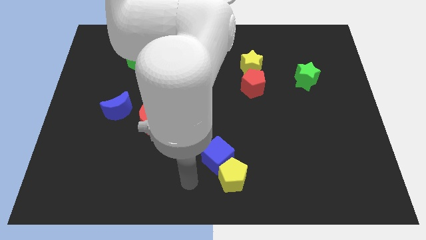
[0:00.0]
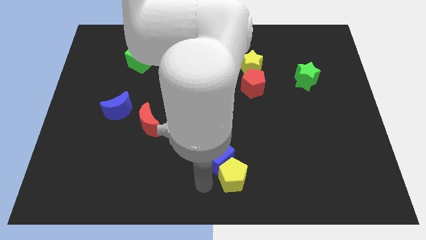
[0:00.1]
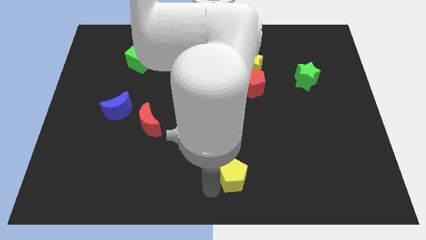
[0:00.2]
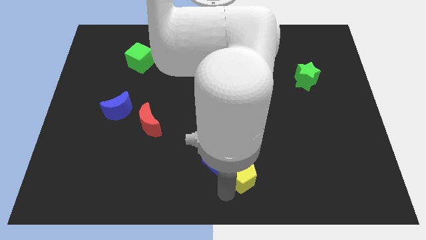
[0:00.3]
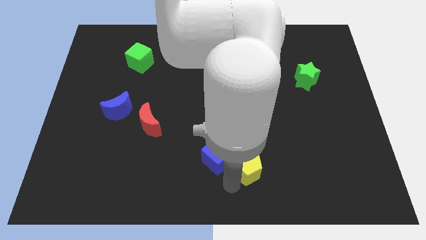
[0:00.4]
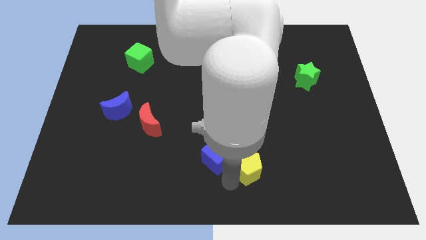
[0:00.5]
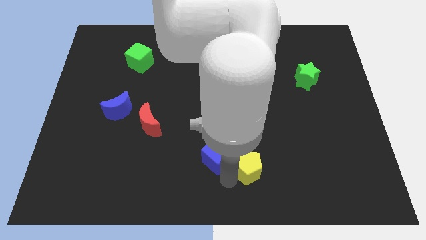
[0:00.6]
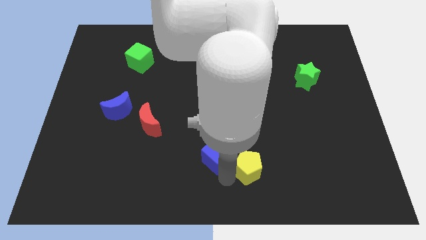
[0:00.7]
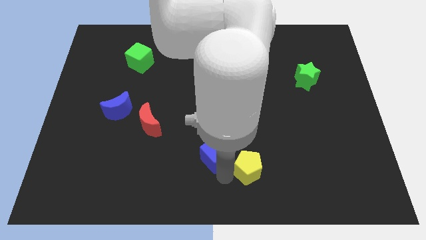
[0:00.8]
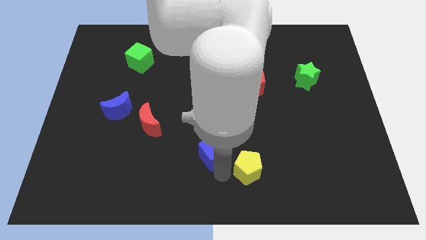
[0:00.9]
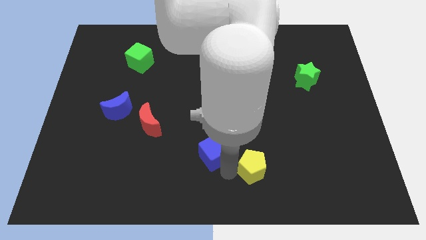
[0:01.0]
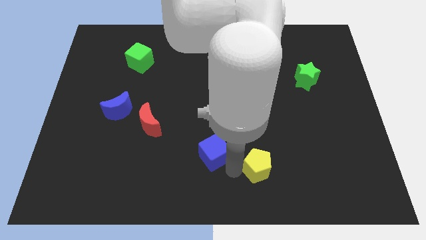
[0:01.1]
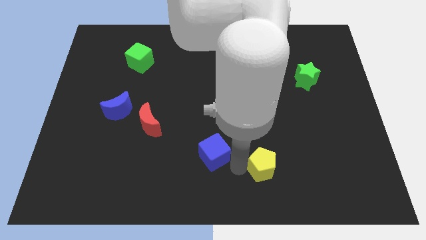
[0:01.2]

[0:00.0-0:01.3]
separate the blue cube from the yellow pentagon

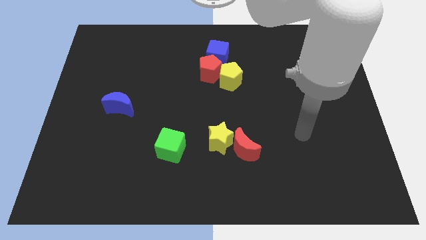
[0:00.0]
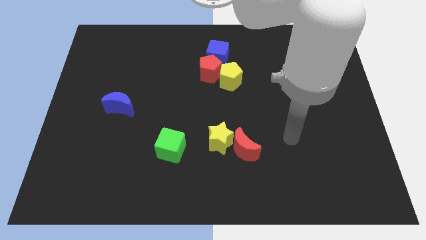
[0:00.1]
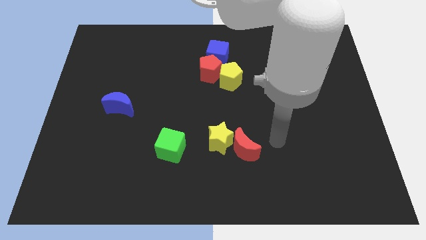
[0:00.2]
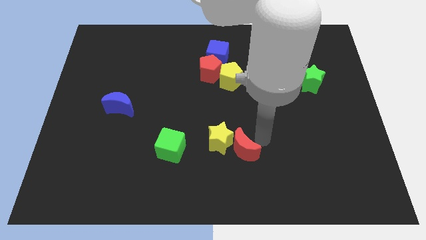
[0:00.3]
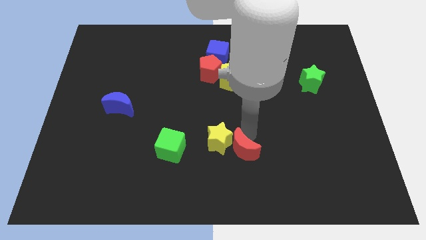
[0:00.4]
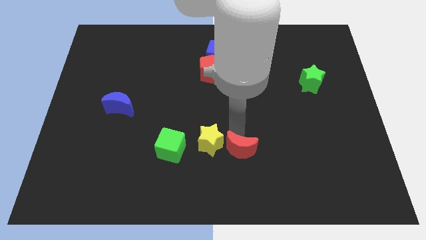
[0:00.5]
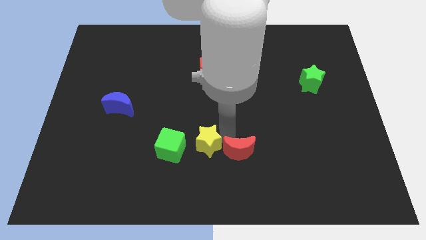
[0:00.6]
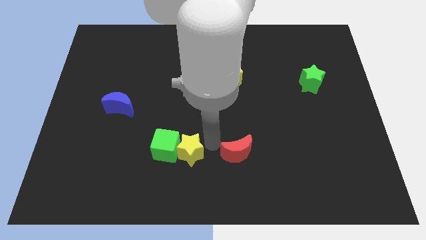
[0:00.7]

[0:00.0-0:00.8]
move the red moon away from the yellow star

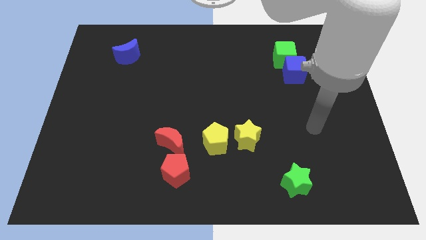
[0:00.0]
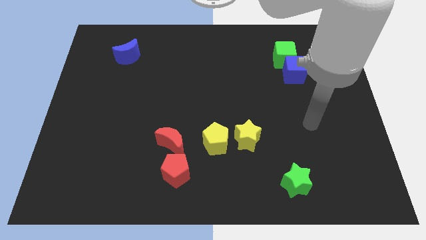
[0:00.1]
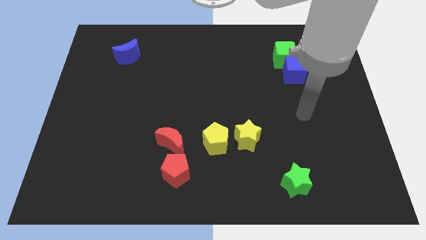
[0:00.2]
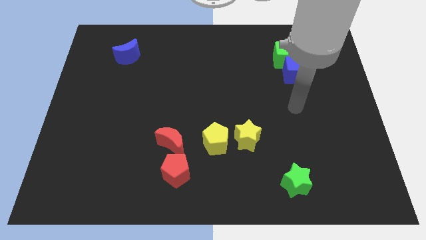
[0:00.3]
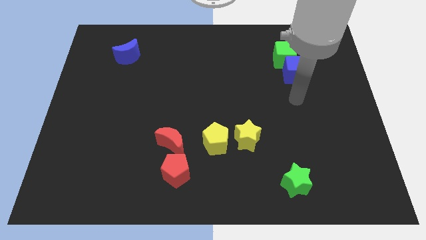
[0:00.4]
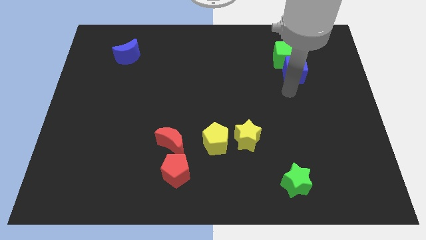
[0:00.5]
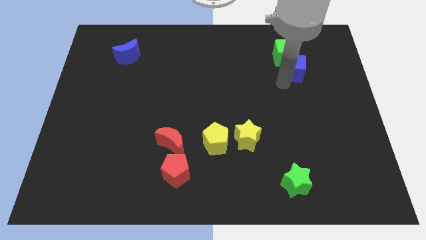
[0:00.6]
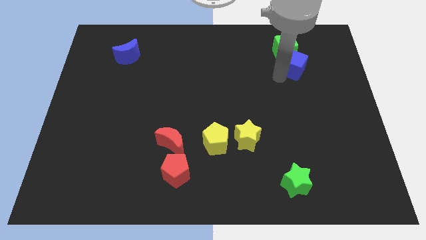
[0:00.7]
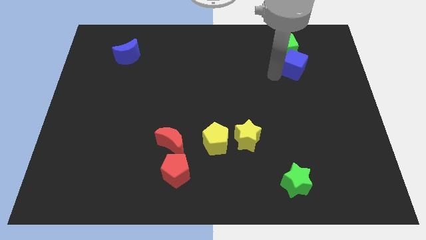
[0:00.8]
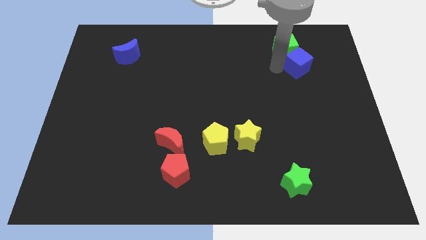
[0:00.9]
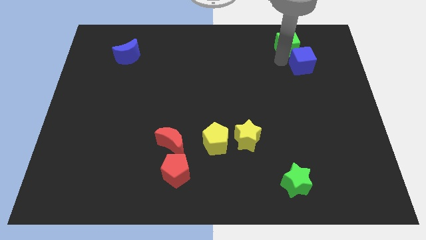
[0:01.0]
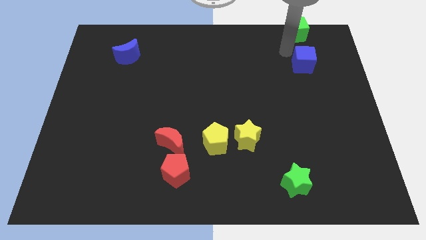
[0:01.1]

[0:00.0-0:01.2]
pull the blue cube apart from the green cube

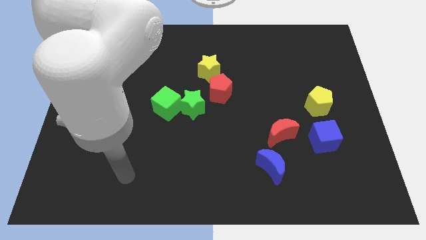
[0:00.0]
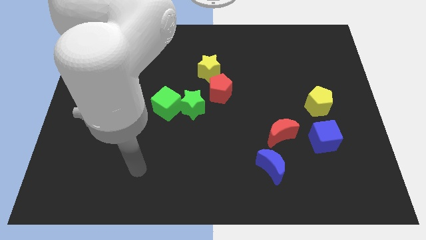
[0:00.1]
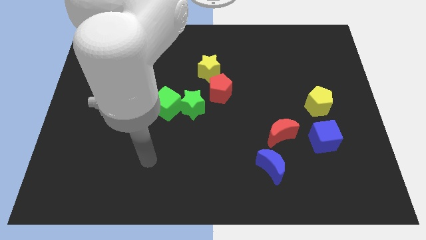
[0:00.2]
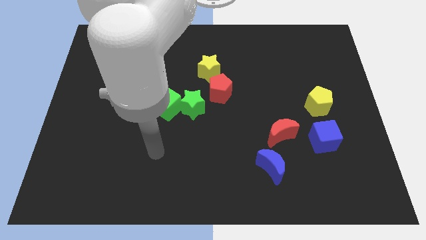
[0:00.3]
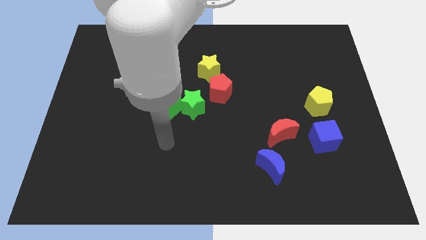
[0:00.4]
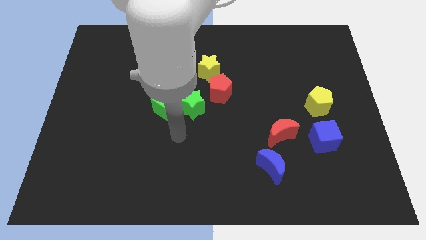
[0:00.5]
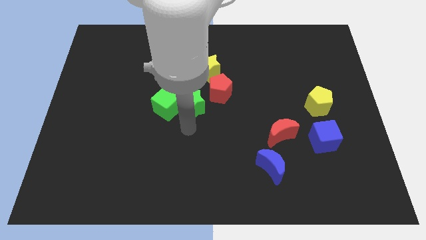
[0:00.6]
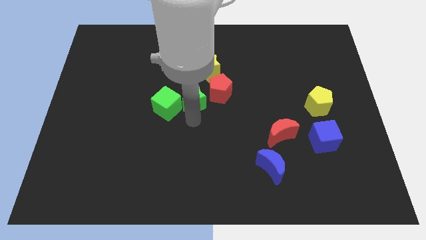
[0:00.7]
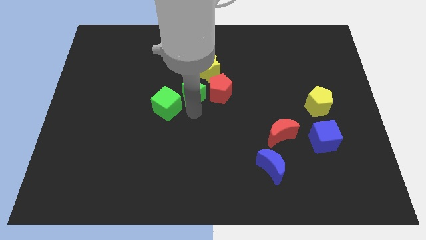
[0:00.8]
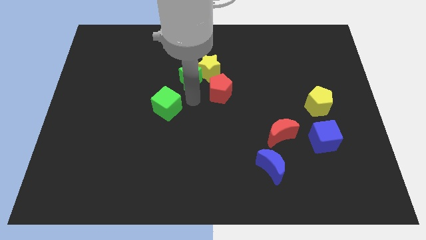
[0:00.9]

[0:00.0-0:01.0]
separate the green cube from the green star

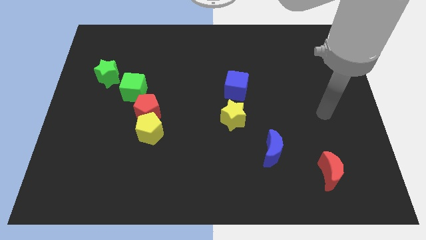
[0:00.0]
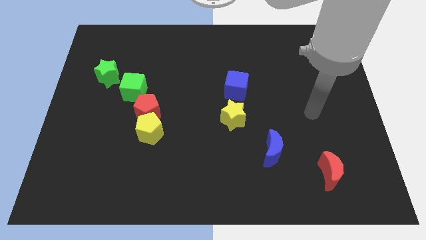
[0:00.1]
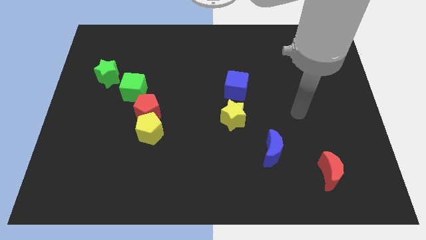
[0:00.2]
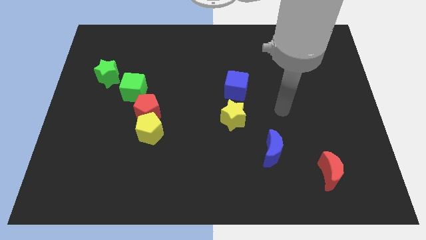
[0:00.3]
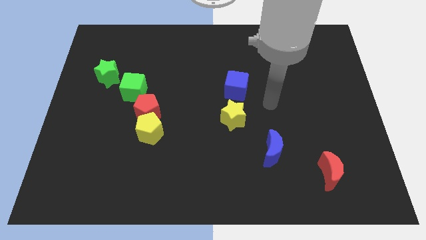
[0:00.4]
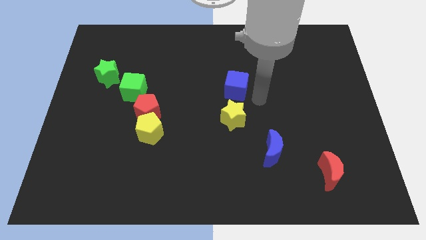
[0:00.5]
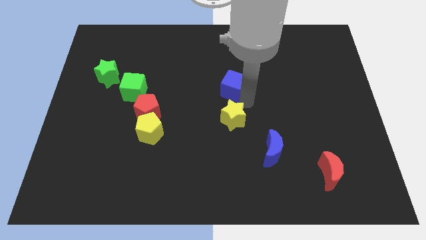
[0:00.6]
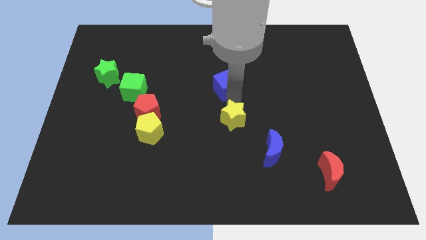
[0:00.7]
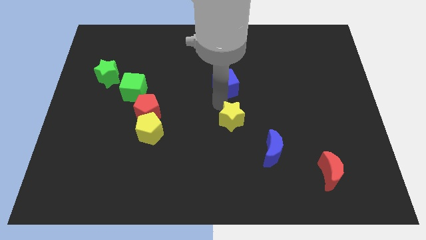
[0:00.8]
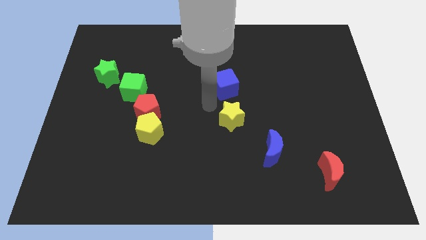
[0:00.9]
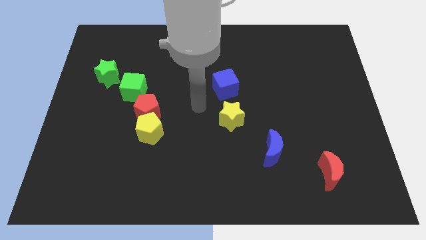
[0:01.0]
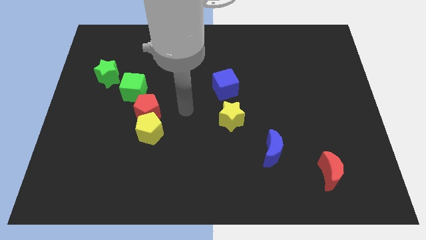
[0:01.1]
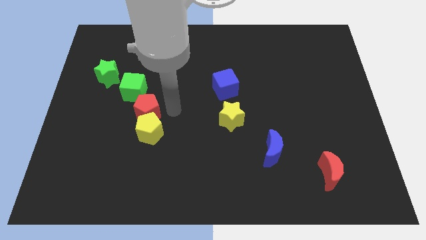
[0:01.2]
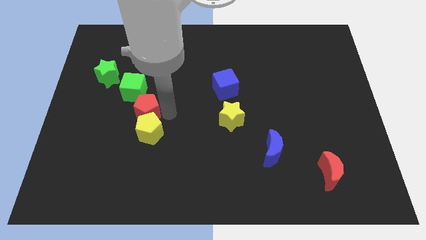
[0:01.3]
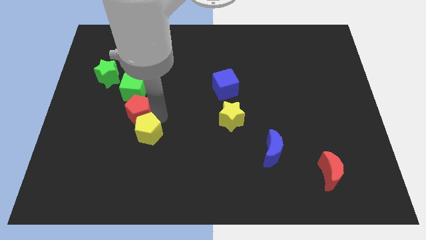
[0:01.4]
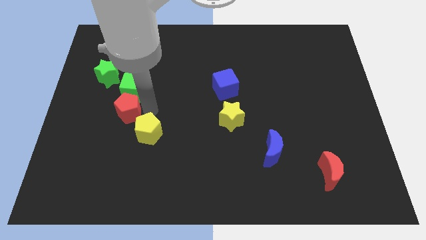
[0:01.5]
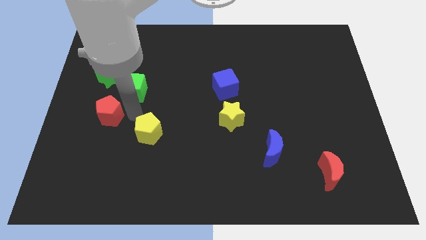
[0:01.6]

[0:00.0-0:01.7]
pull the yellow pentagon apart from the red pentagon

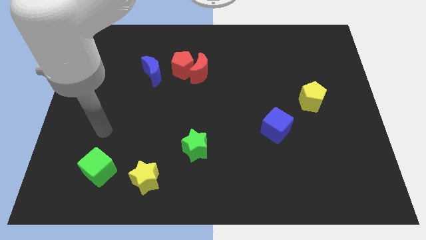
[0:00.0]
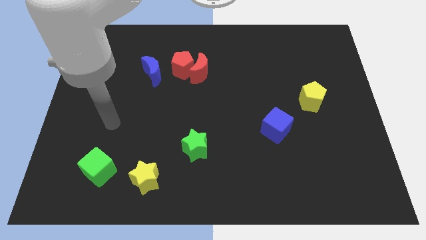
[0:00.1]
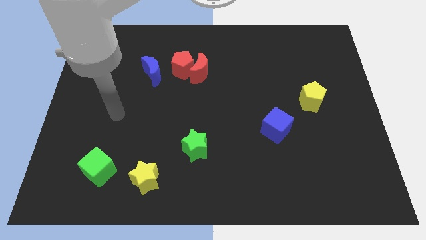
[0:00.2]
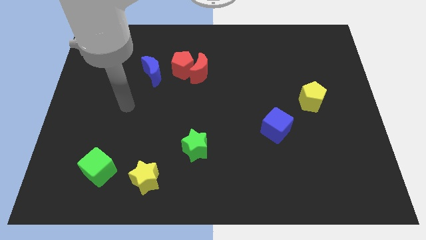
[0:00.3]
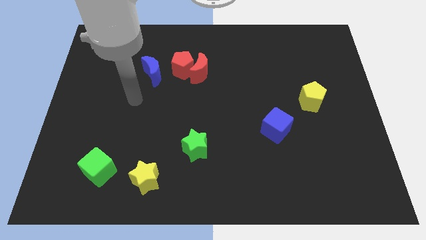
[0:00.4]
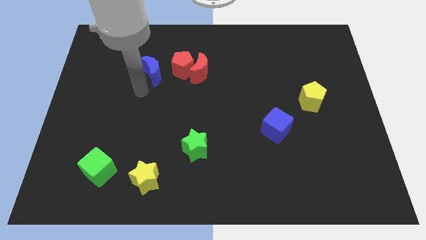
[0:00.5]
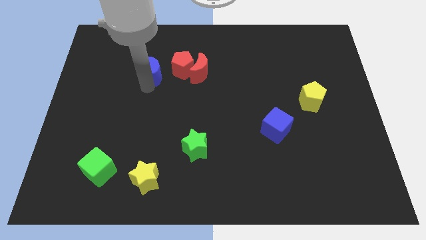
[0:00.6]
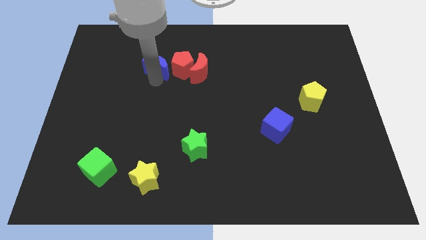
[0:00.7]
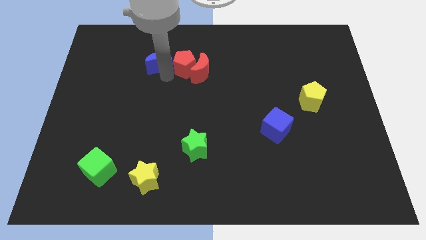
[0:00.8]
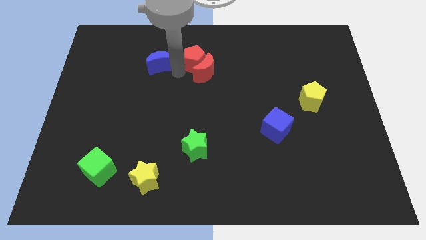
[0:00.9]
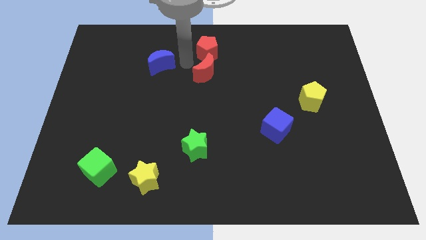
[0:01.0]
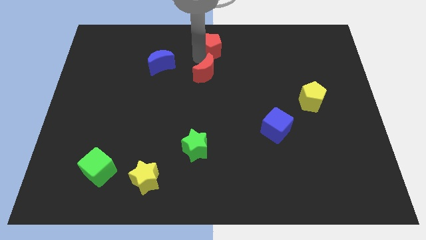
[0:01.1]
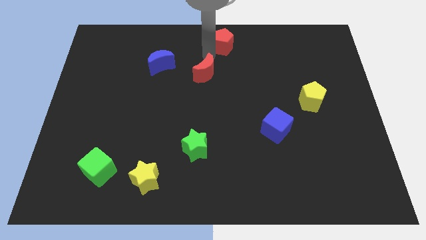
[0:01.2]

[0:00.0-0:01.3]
separate the red moon from the red pentagon

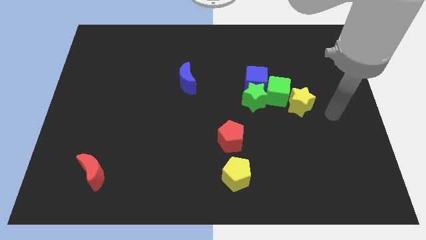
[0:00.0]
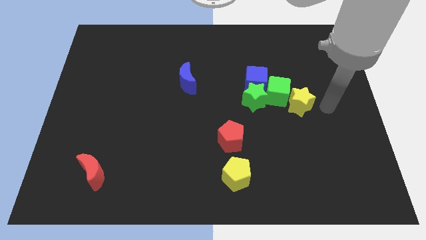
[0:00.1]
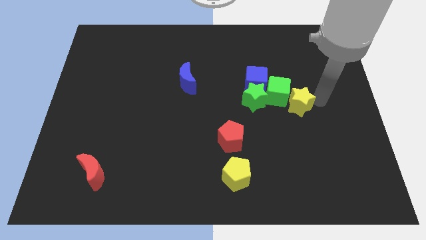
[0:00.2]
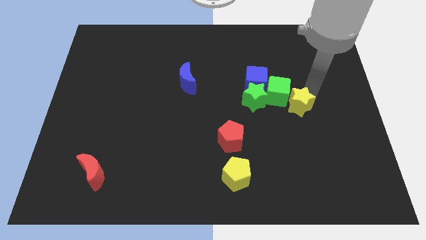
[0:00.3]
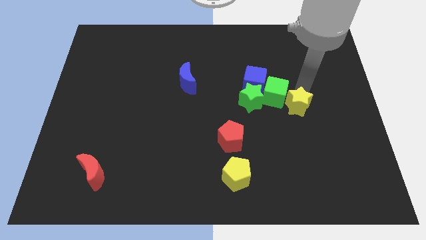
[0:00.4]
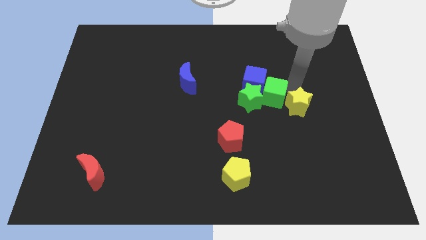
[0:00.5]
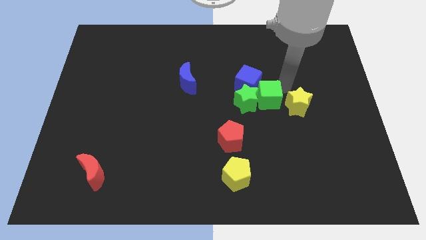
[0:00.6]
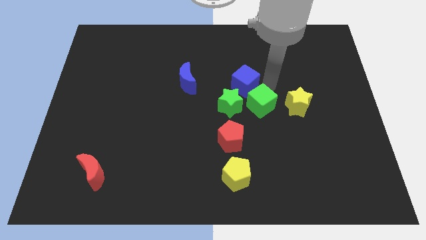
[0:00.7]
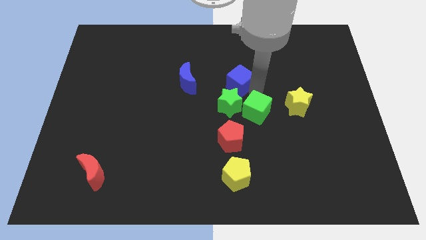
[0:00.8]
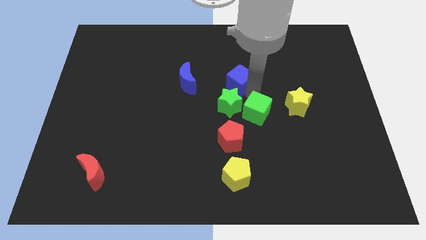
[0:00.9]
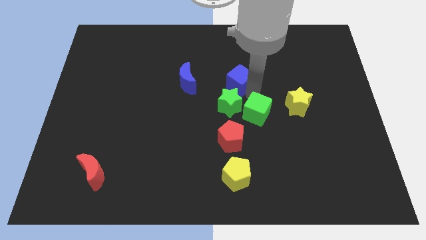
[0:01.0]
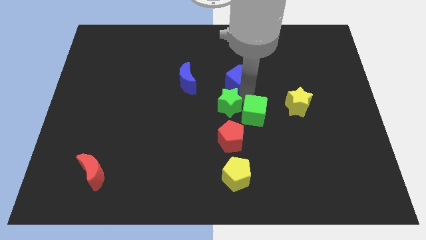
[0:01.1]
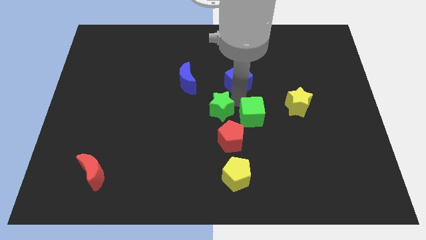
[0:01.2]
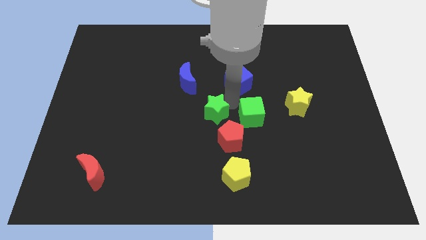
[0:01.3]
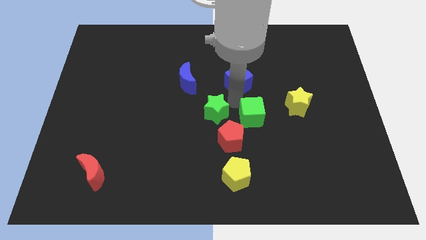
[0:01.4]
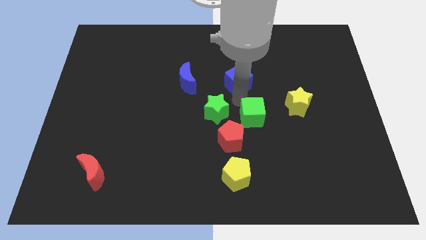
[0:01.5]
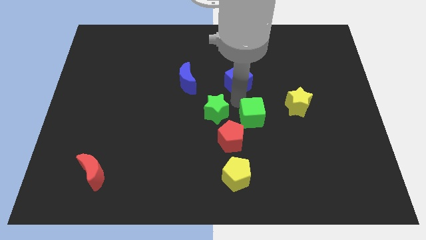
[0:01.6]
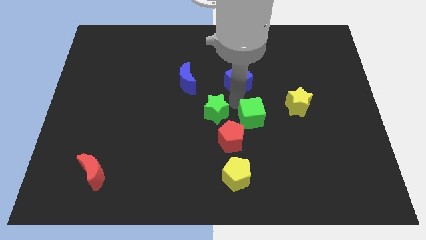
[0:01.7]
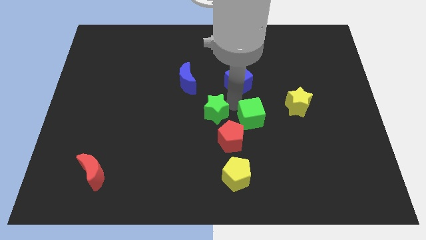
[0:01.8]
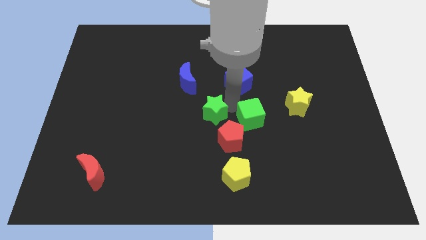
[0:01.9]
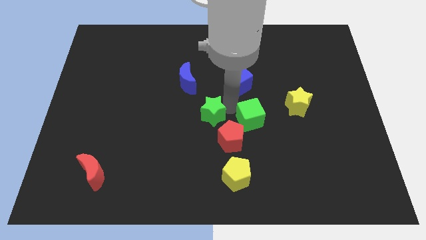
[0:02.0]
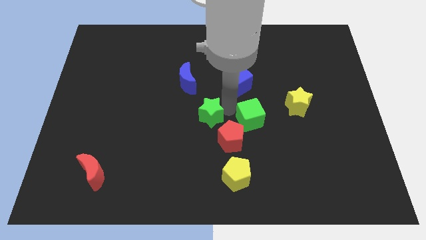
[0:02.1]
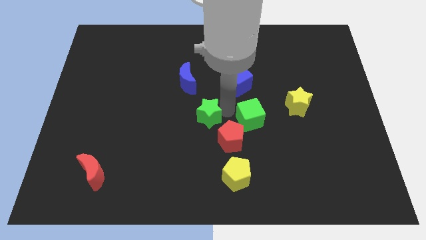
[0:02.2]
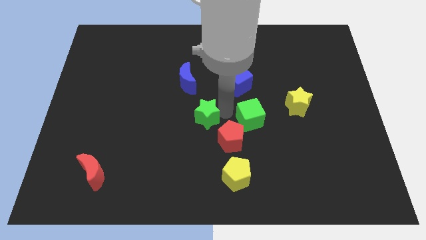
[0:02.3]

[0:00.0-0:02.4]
separate the green star from the blue cube and green cube
